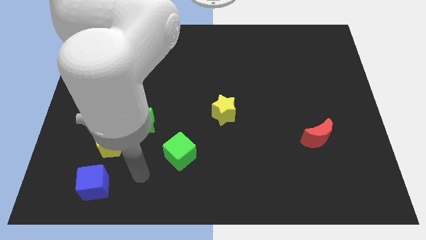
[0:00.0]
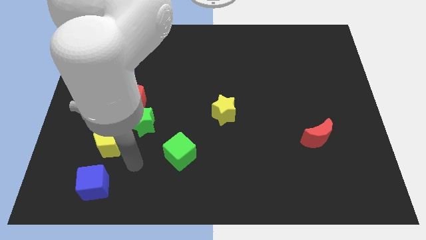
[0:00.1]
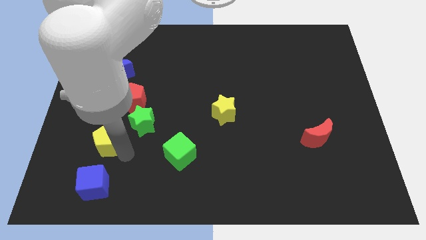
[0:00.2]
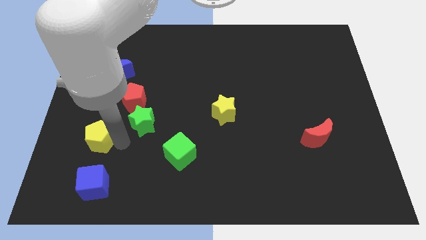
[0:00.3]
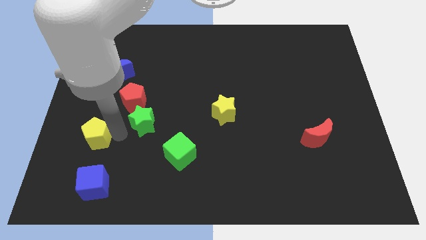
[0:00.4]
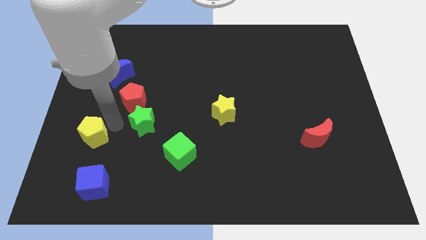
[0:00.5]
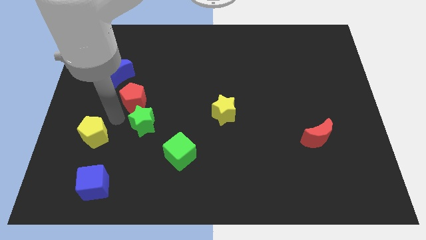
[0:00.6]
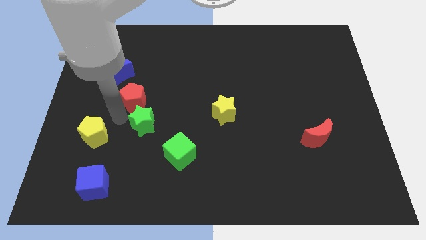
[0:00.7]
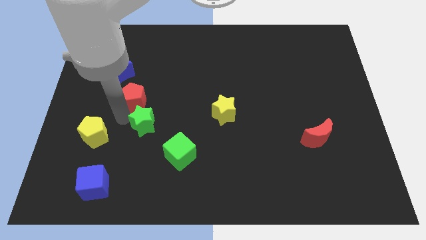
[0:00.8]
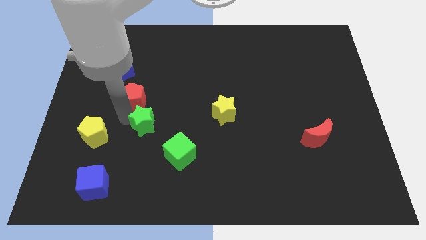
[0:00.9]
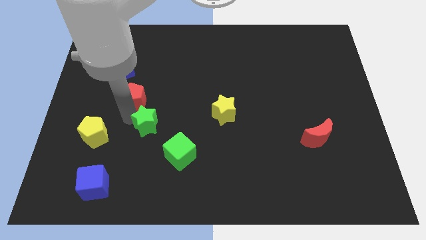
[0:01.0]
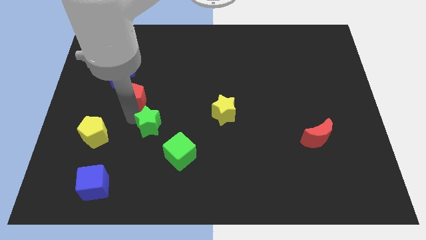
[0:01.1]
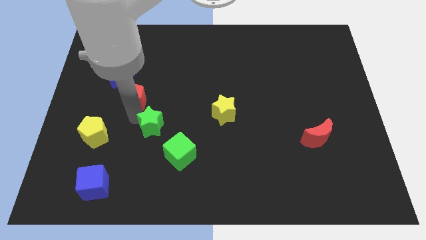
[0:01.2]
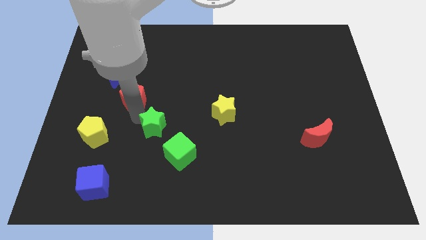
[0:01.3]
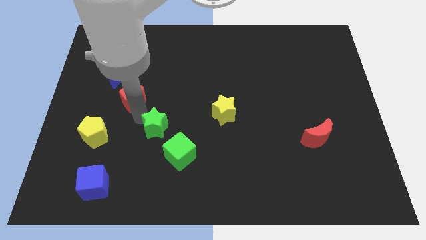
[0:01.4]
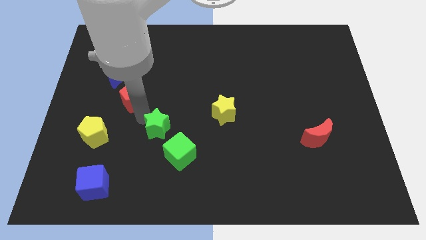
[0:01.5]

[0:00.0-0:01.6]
separate the green star from the red pentagon and yellow pentagon

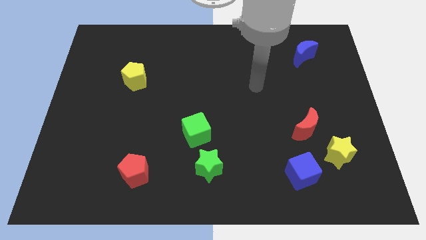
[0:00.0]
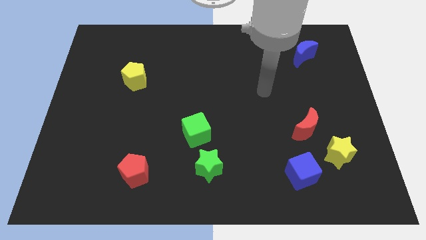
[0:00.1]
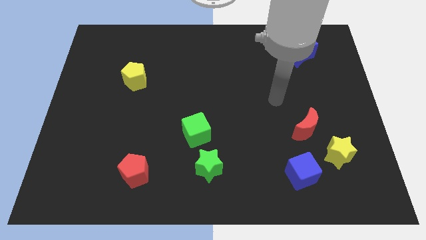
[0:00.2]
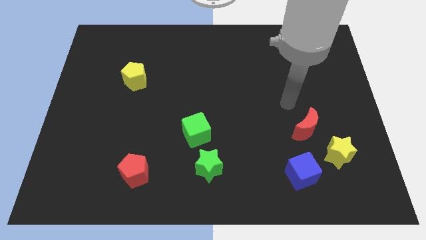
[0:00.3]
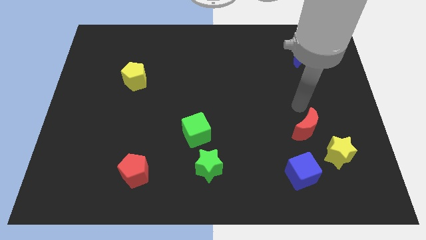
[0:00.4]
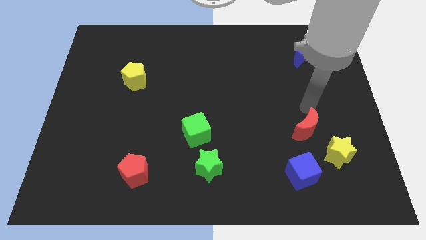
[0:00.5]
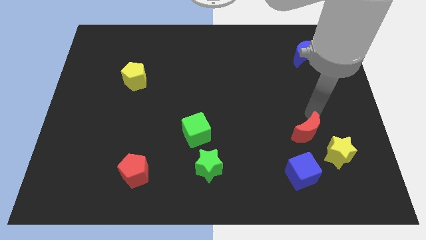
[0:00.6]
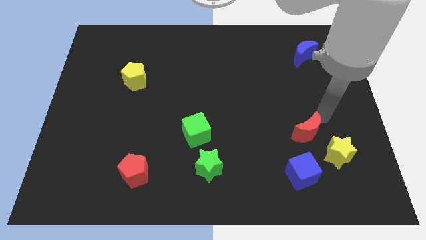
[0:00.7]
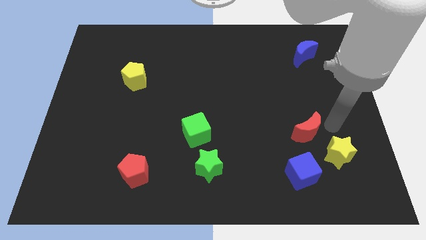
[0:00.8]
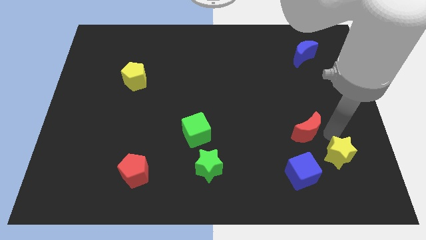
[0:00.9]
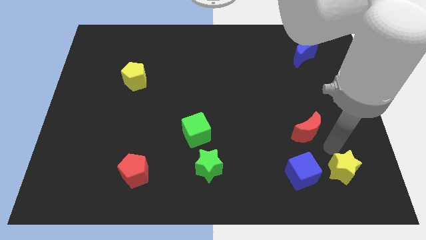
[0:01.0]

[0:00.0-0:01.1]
pull the red moon apart from the yellow star

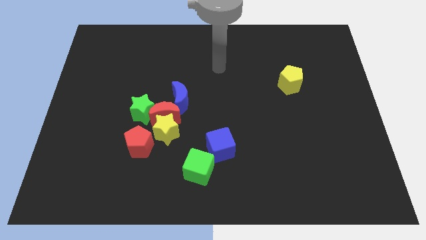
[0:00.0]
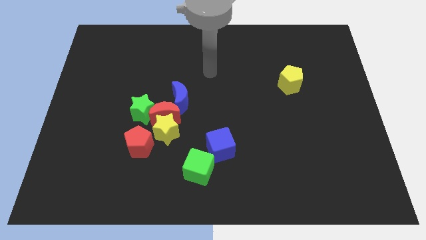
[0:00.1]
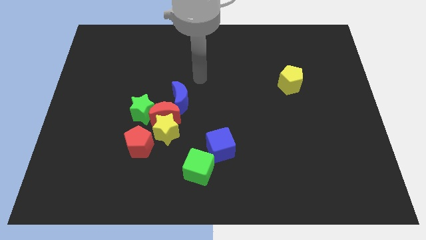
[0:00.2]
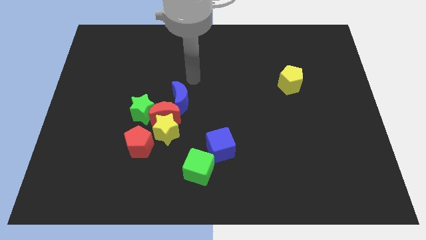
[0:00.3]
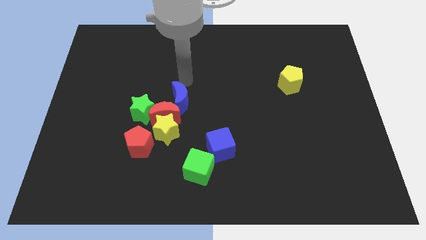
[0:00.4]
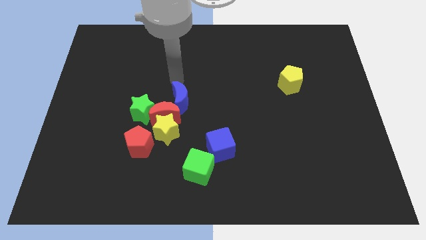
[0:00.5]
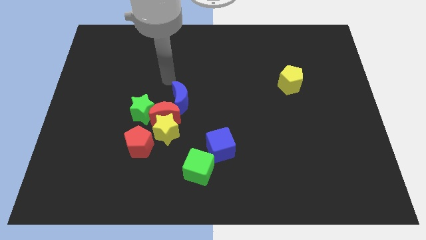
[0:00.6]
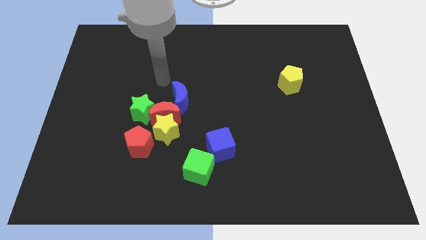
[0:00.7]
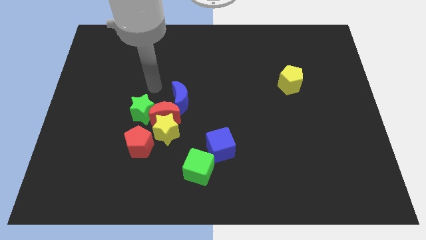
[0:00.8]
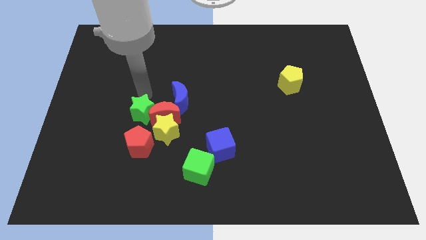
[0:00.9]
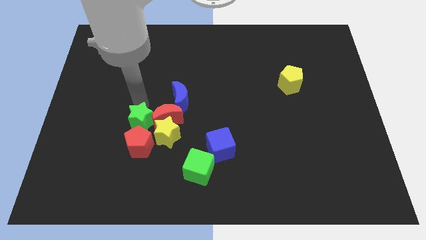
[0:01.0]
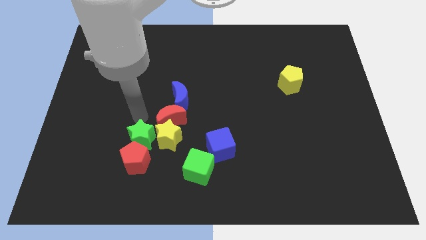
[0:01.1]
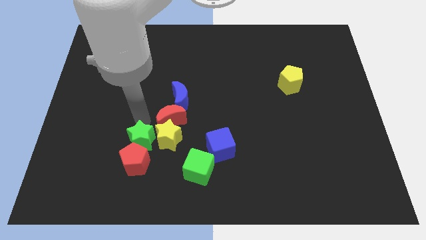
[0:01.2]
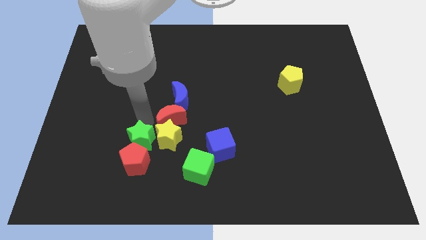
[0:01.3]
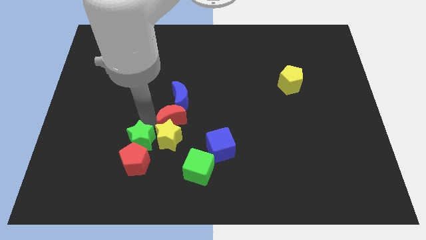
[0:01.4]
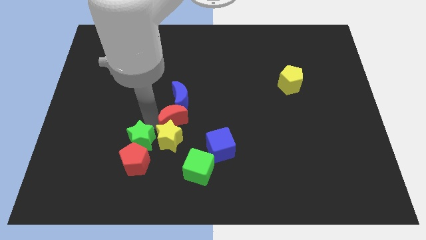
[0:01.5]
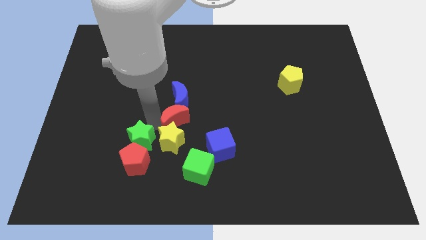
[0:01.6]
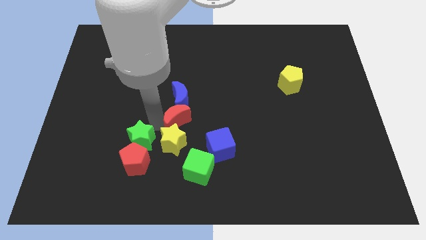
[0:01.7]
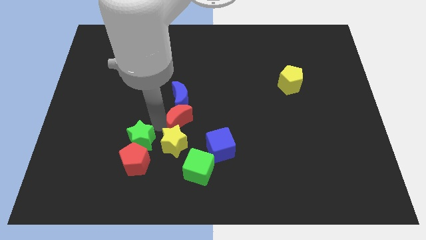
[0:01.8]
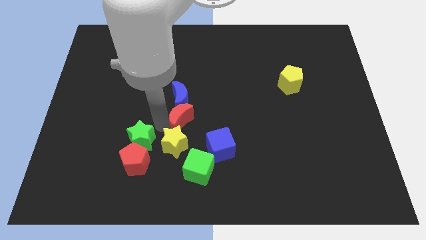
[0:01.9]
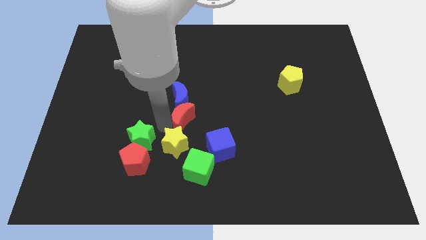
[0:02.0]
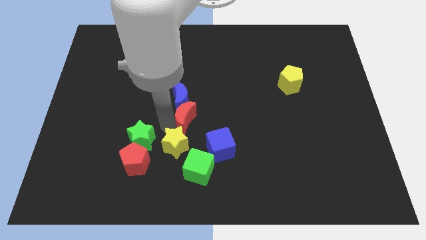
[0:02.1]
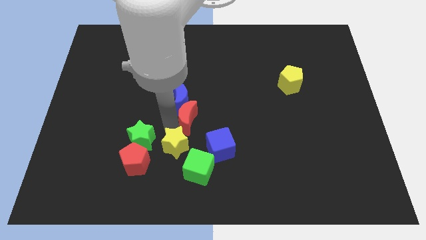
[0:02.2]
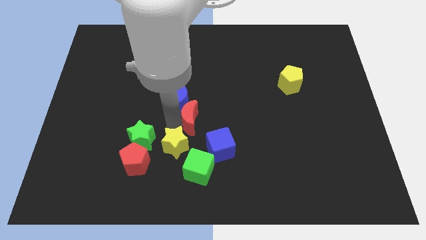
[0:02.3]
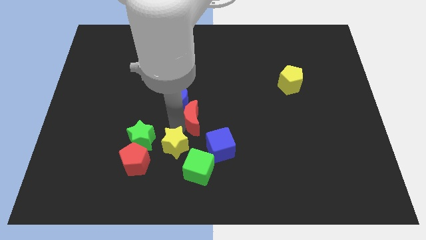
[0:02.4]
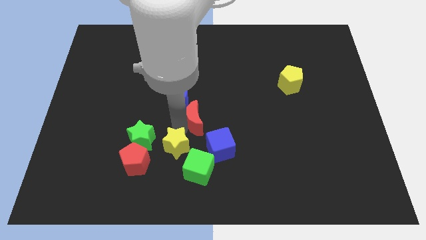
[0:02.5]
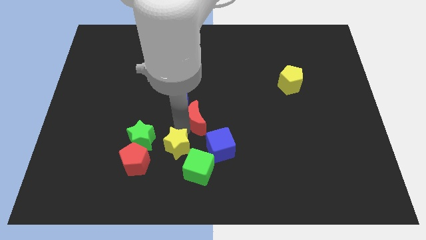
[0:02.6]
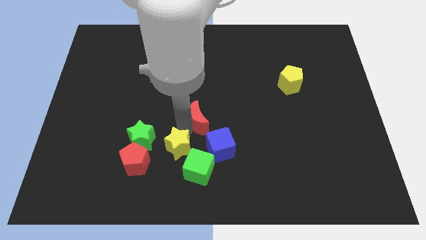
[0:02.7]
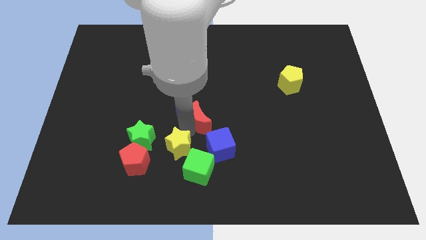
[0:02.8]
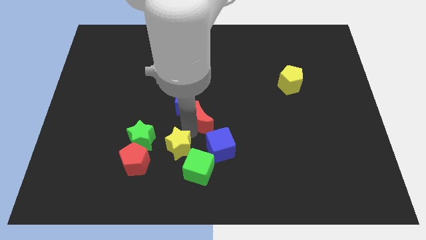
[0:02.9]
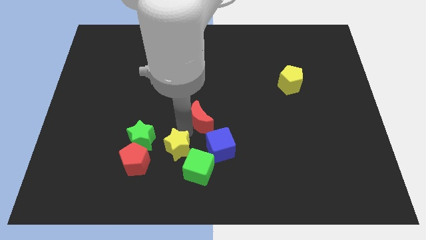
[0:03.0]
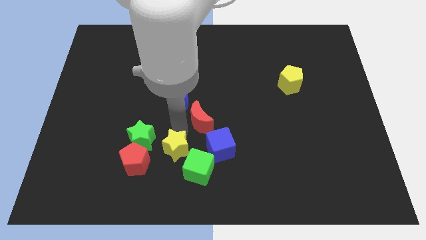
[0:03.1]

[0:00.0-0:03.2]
move the red moon away from the clump

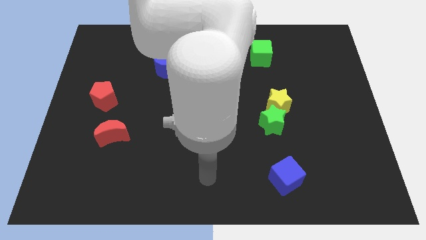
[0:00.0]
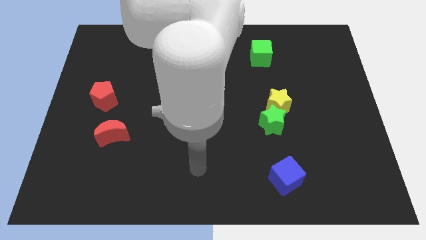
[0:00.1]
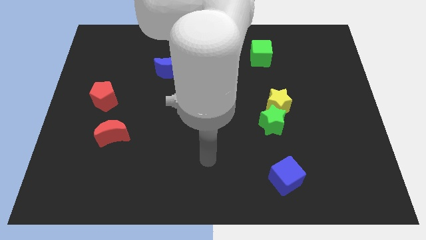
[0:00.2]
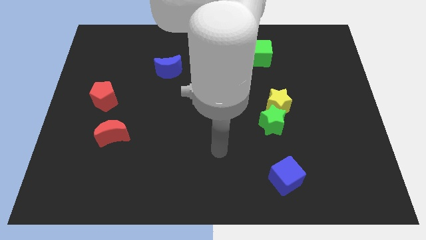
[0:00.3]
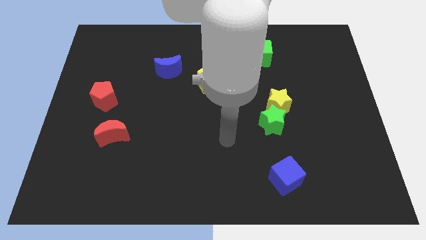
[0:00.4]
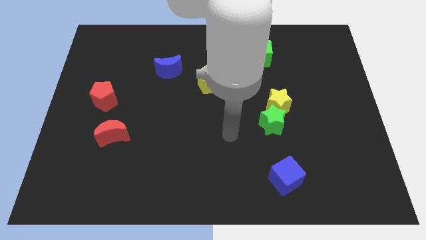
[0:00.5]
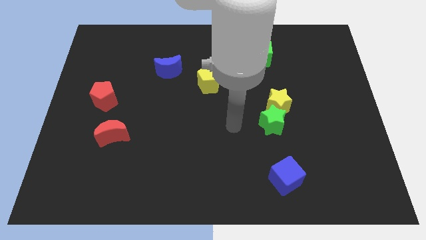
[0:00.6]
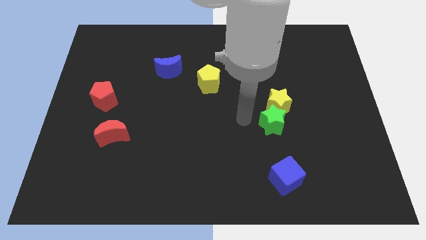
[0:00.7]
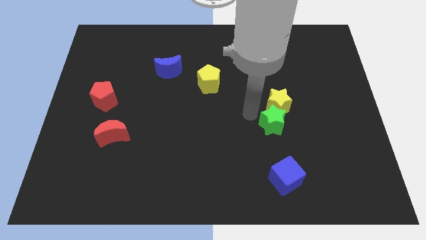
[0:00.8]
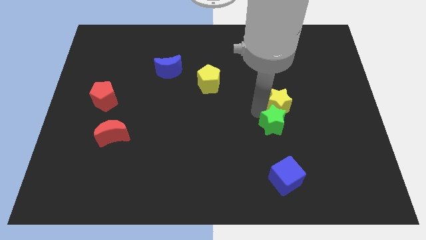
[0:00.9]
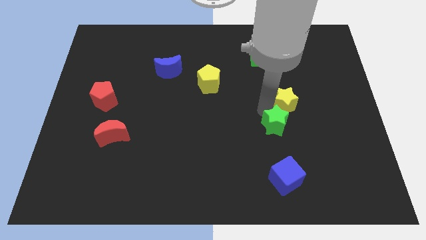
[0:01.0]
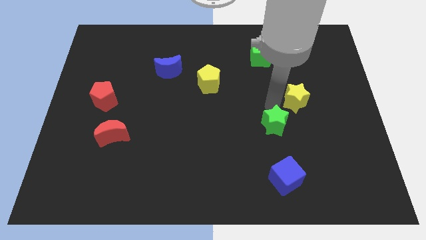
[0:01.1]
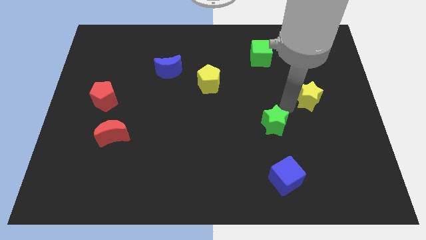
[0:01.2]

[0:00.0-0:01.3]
separate the green star from the yellow star

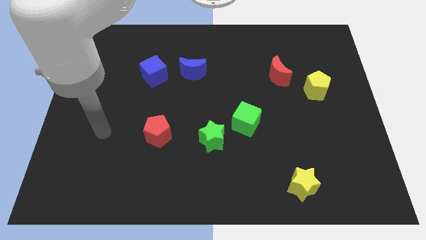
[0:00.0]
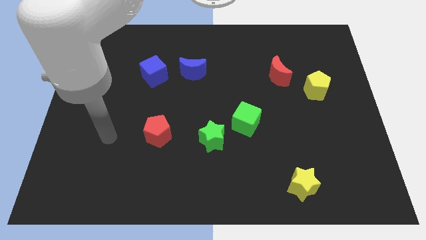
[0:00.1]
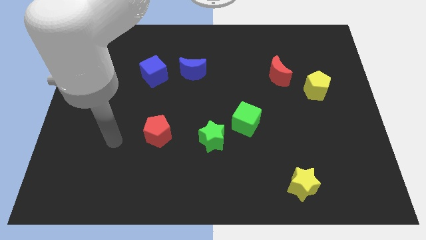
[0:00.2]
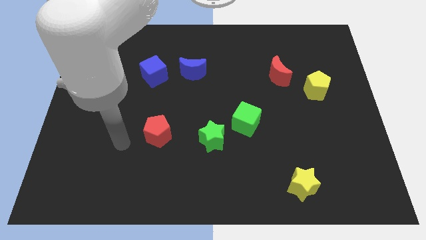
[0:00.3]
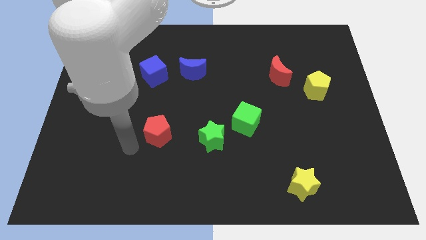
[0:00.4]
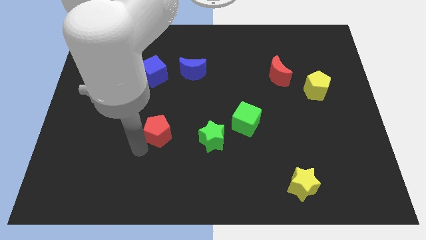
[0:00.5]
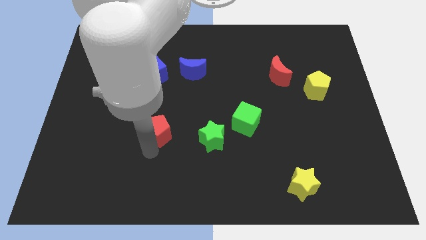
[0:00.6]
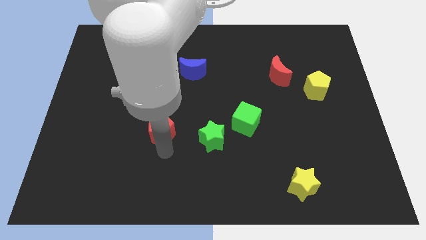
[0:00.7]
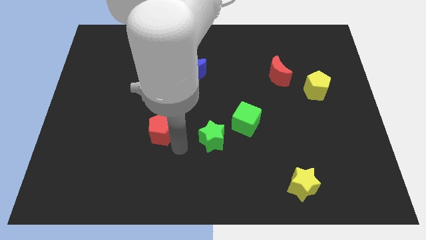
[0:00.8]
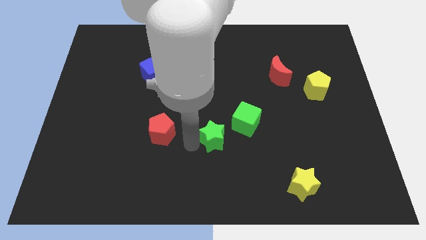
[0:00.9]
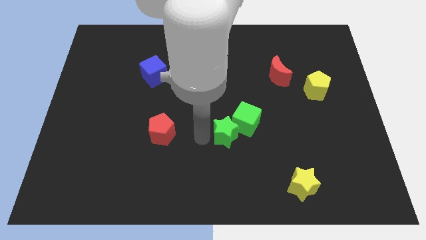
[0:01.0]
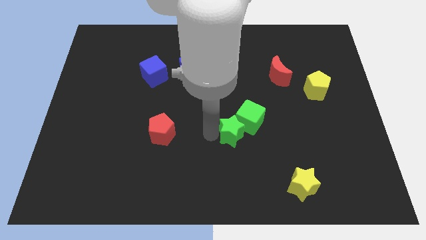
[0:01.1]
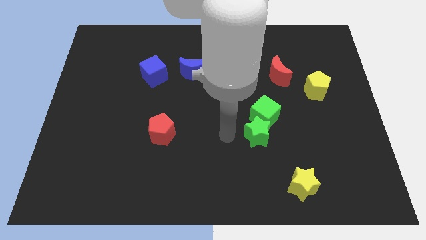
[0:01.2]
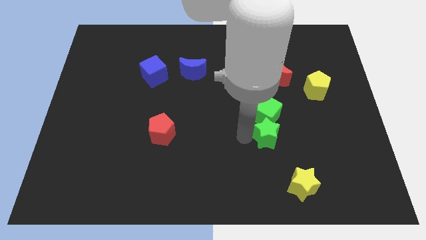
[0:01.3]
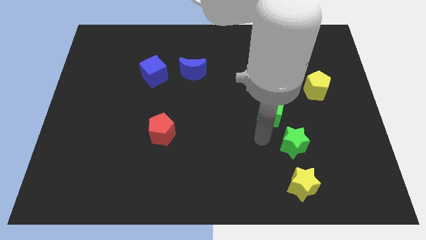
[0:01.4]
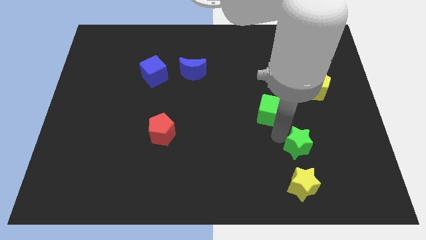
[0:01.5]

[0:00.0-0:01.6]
pull the green cube apart from the green star

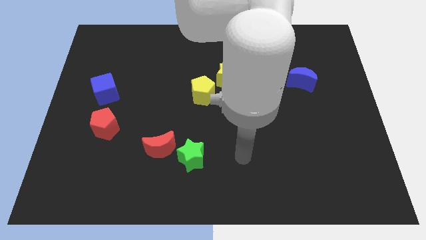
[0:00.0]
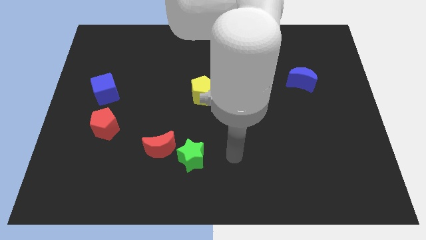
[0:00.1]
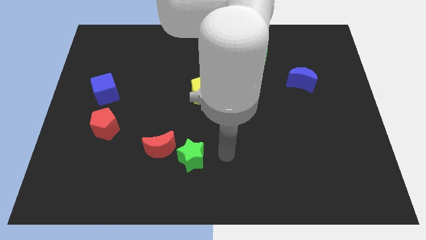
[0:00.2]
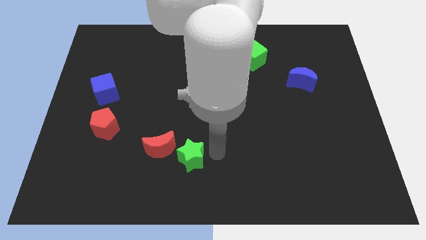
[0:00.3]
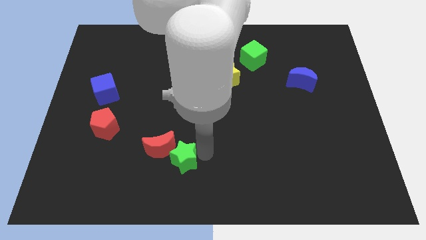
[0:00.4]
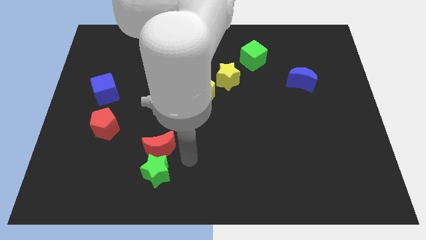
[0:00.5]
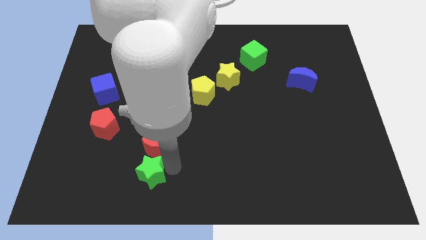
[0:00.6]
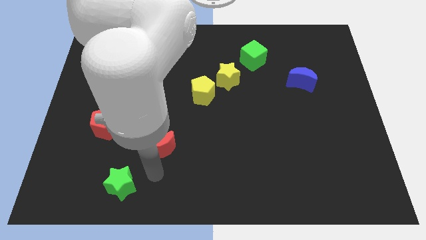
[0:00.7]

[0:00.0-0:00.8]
separate the red moon from the green star
